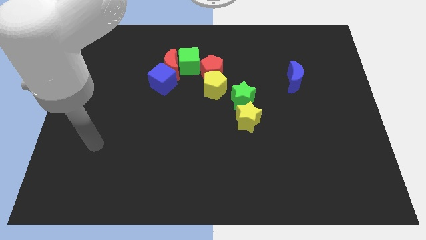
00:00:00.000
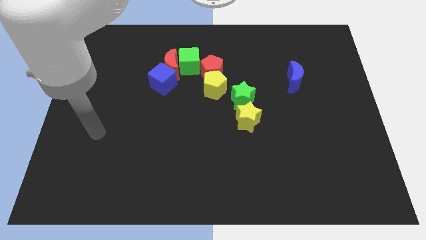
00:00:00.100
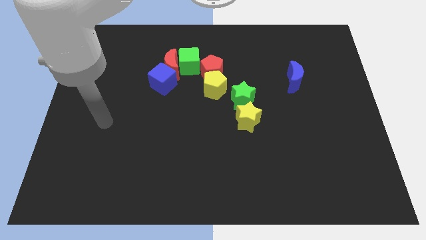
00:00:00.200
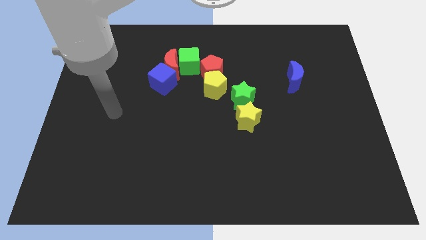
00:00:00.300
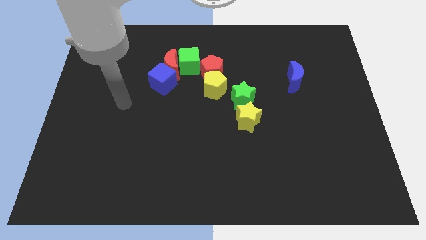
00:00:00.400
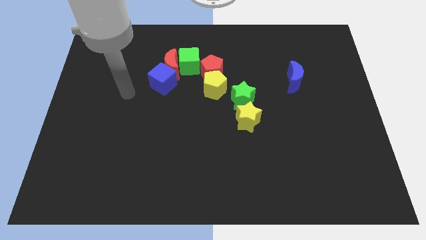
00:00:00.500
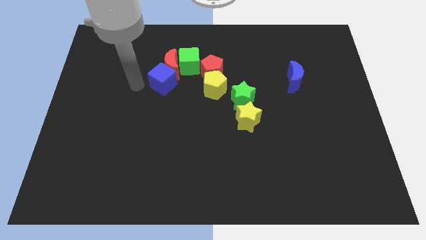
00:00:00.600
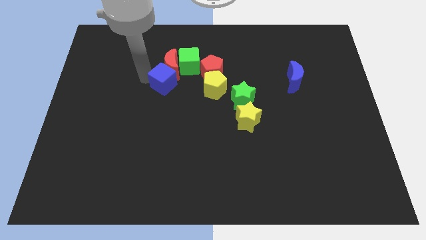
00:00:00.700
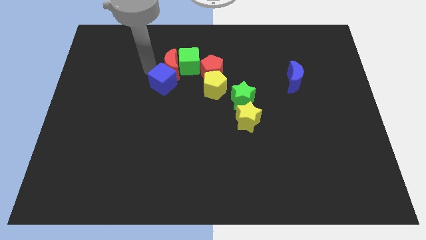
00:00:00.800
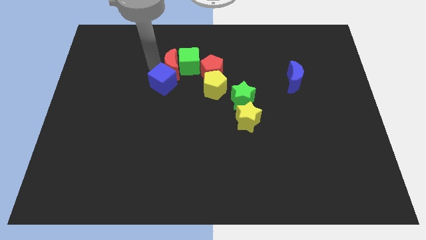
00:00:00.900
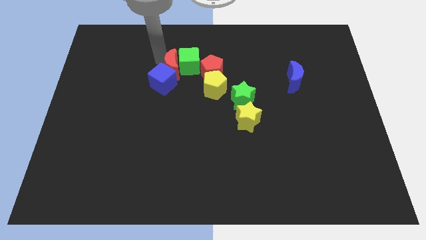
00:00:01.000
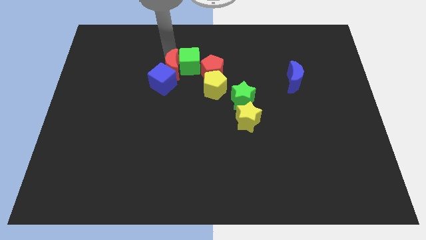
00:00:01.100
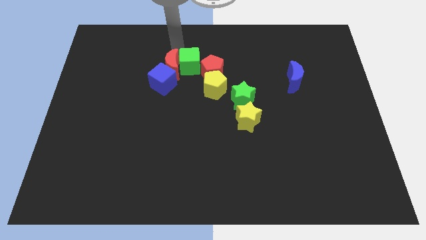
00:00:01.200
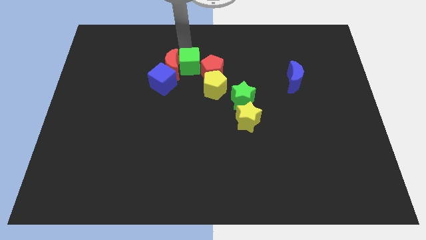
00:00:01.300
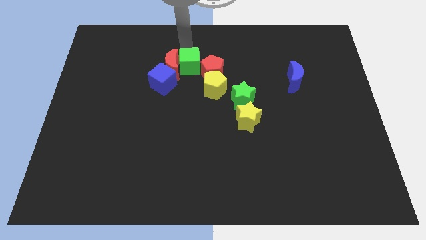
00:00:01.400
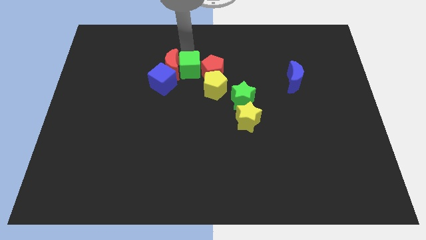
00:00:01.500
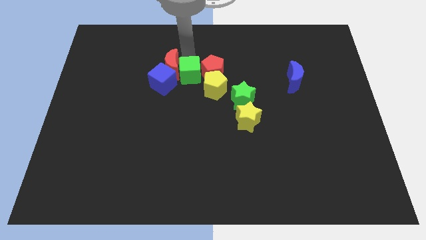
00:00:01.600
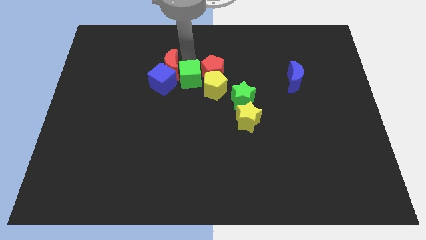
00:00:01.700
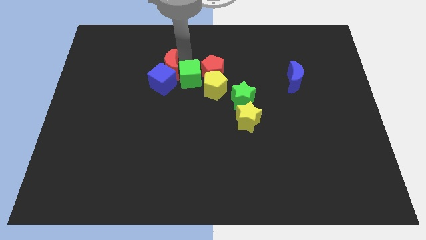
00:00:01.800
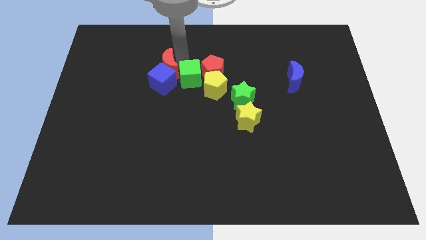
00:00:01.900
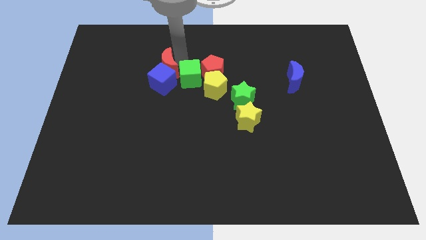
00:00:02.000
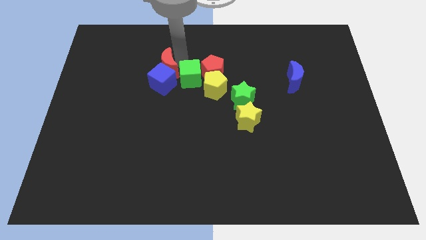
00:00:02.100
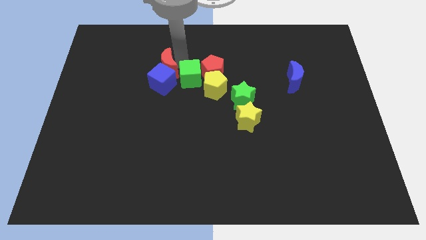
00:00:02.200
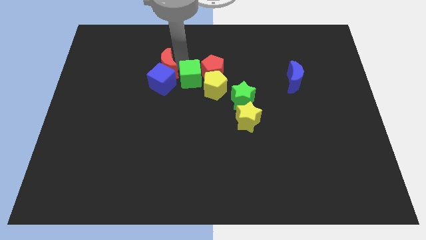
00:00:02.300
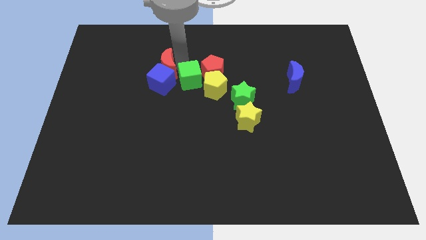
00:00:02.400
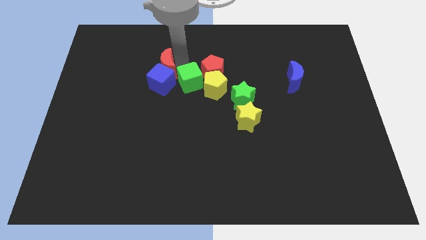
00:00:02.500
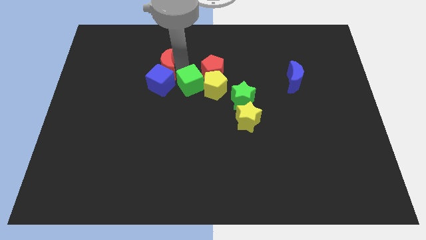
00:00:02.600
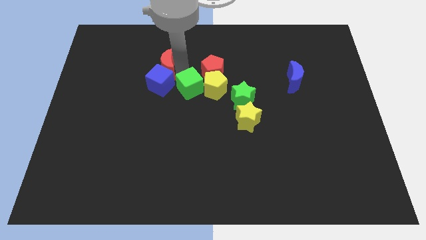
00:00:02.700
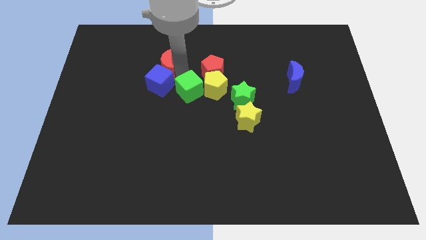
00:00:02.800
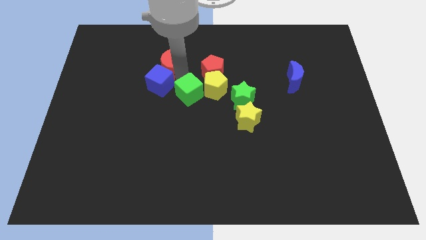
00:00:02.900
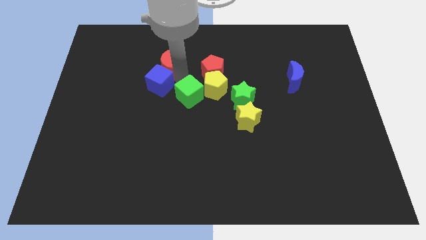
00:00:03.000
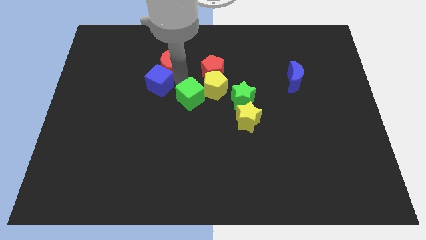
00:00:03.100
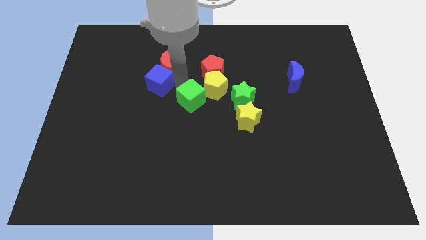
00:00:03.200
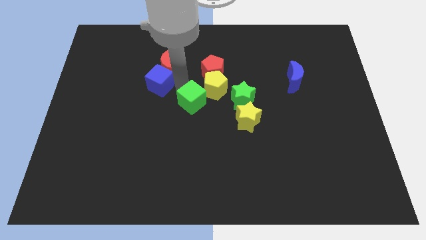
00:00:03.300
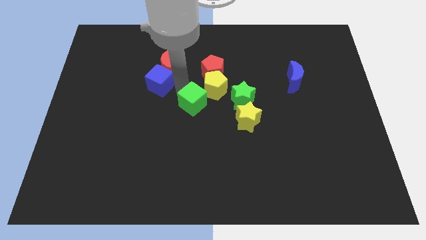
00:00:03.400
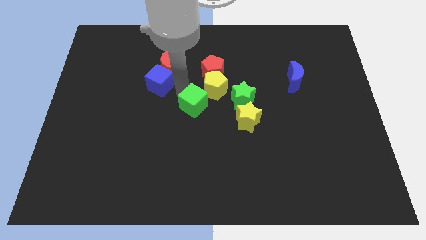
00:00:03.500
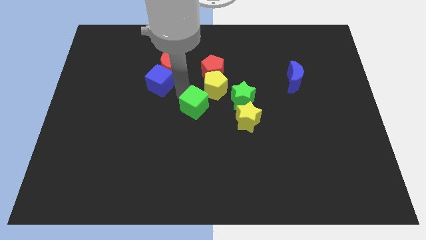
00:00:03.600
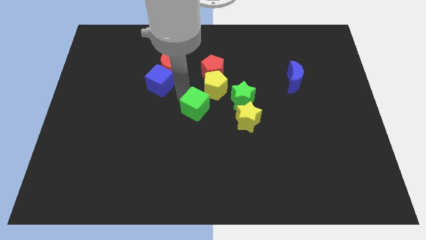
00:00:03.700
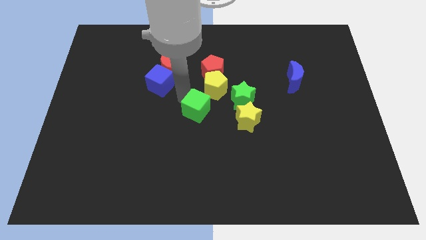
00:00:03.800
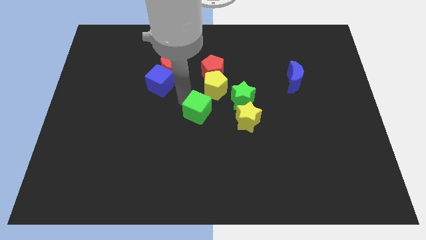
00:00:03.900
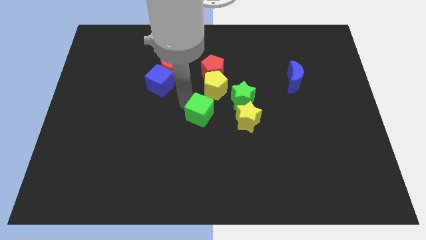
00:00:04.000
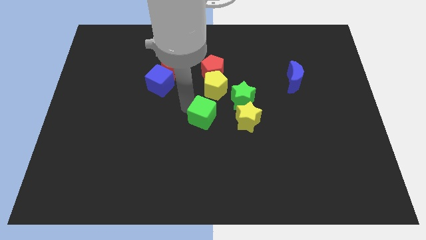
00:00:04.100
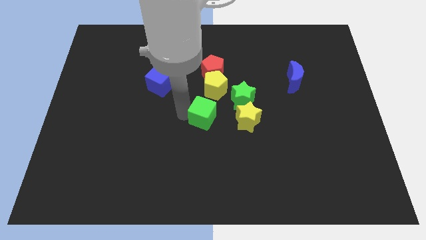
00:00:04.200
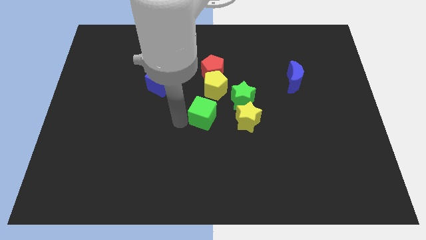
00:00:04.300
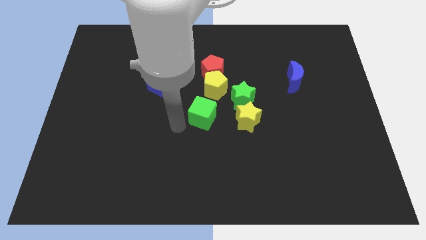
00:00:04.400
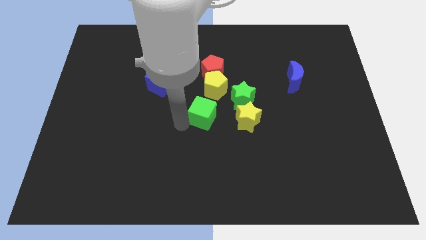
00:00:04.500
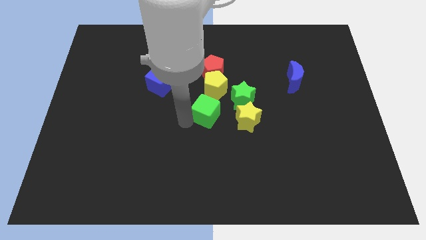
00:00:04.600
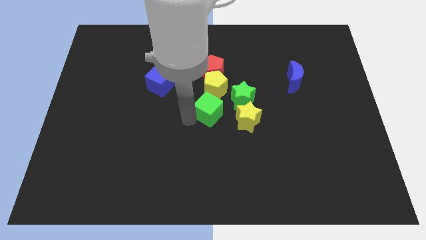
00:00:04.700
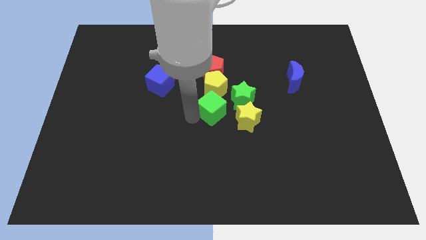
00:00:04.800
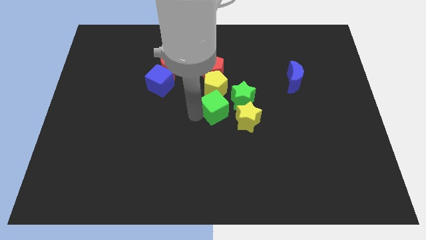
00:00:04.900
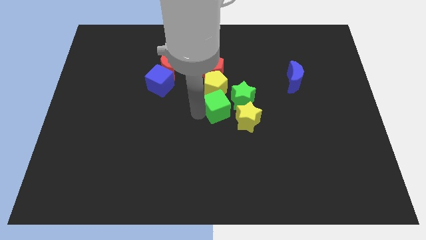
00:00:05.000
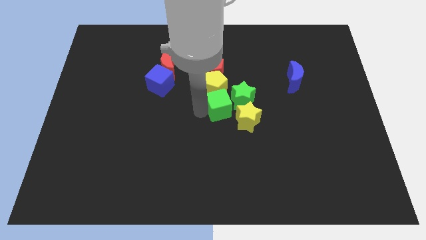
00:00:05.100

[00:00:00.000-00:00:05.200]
push the green cube to the green star
